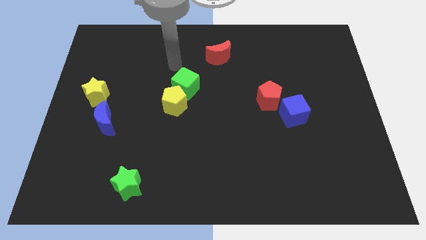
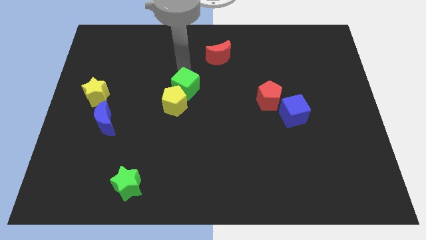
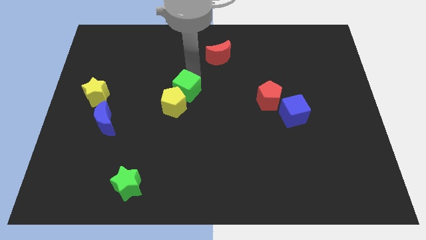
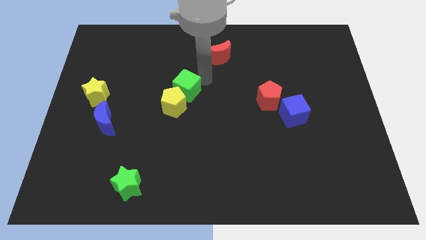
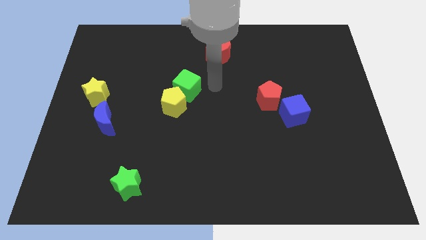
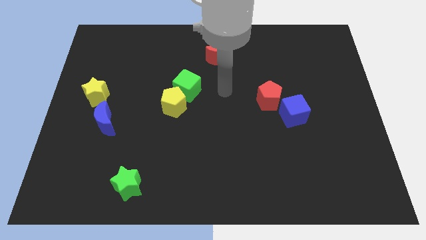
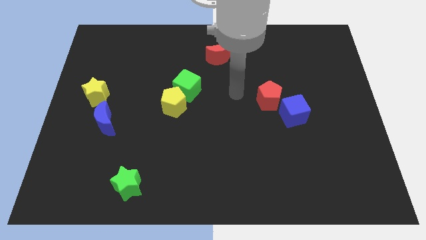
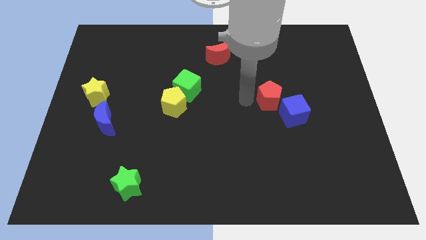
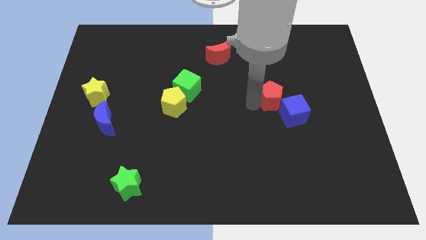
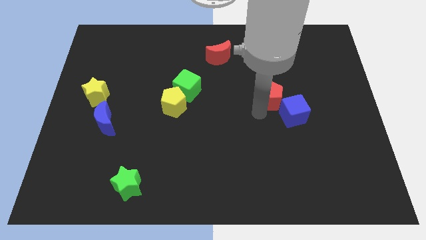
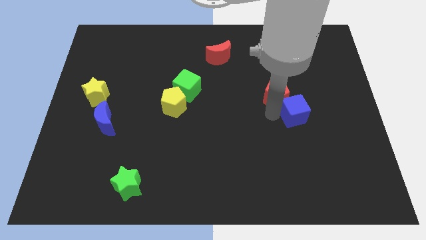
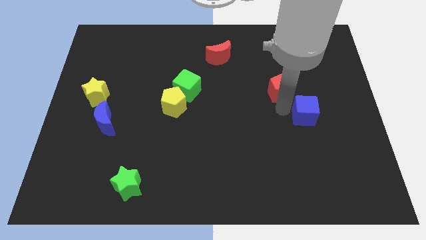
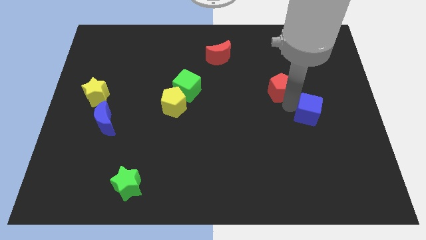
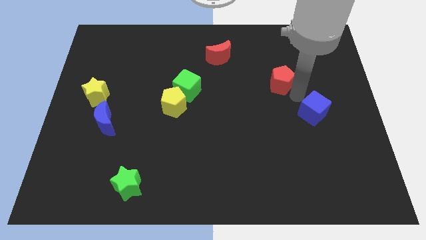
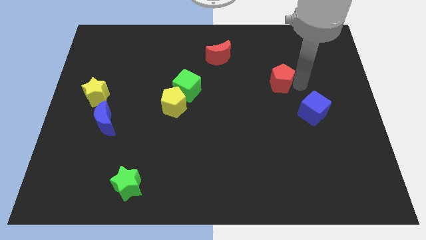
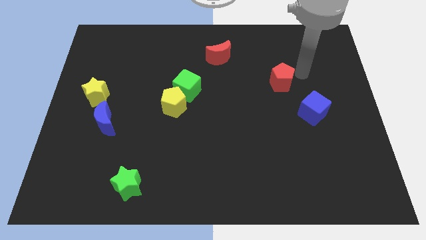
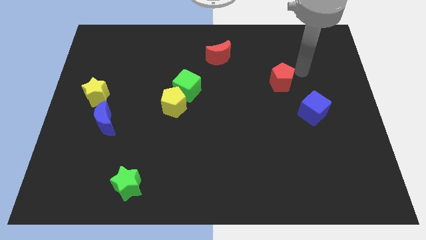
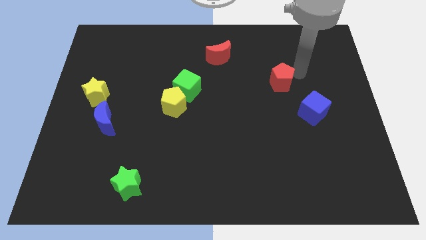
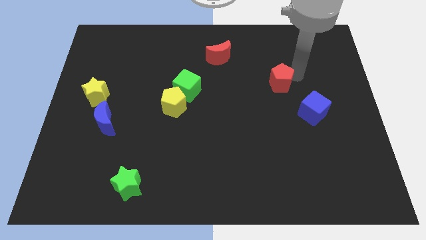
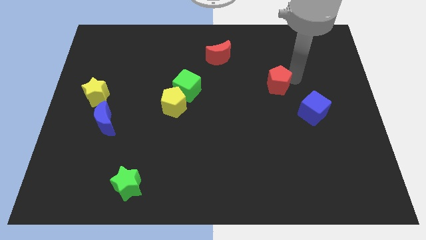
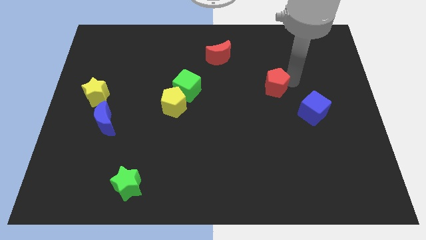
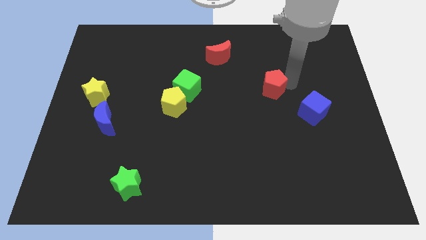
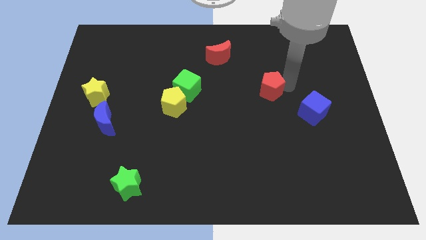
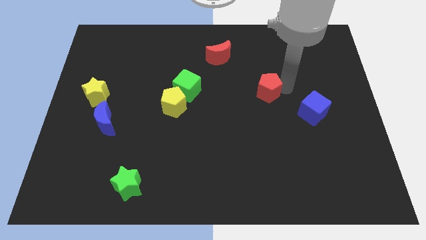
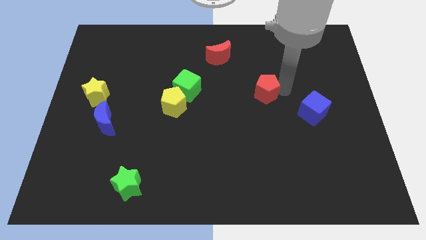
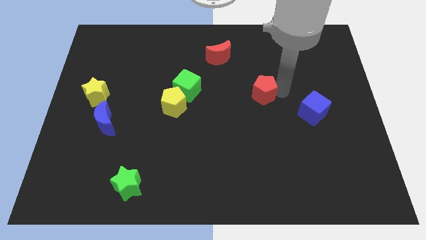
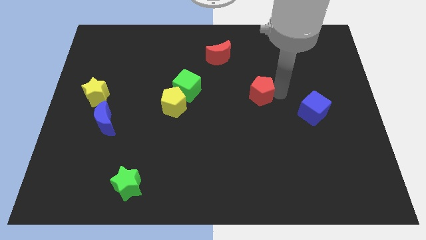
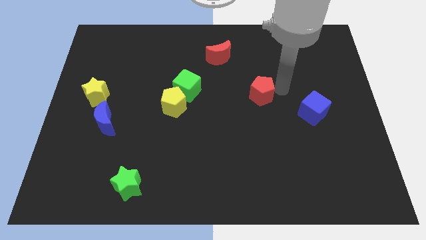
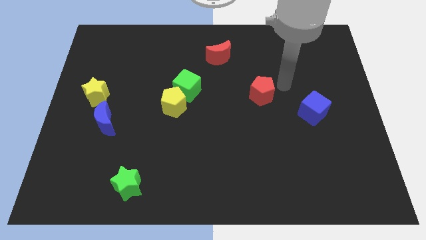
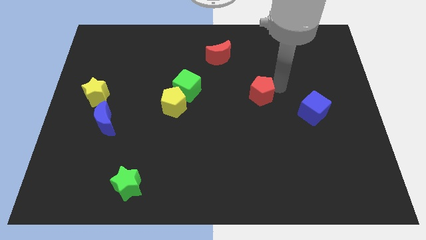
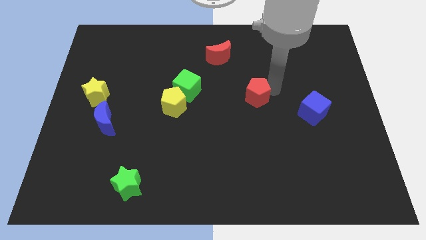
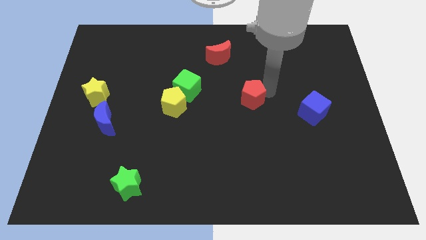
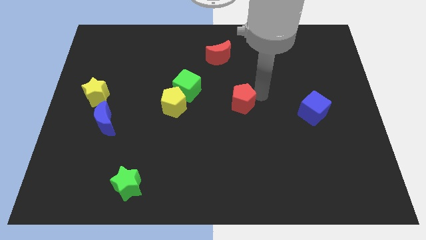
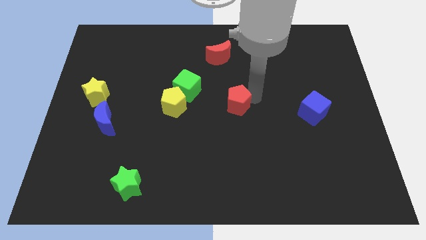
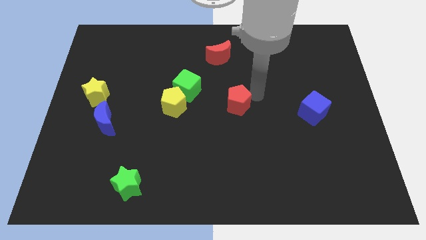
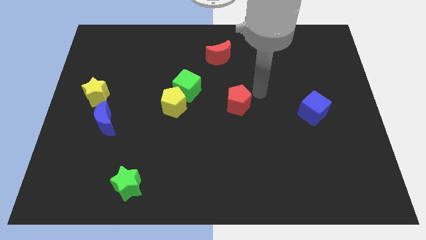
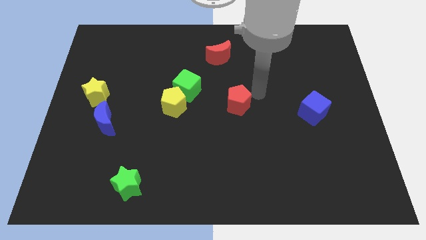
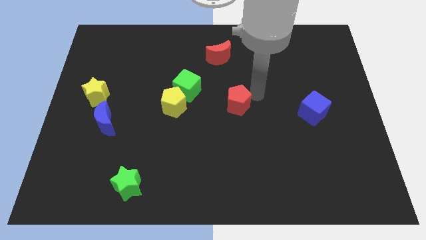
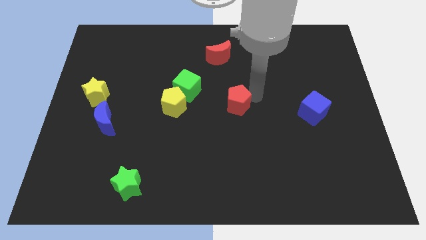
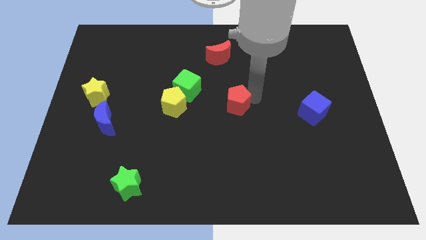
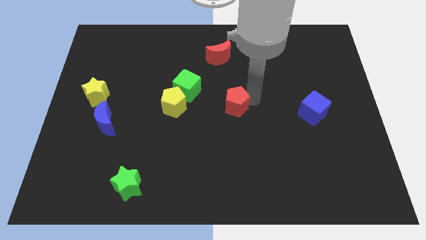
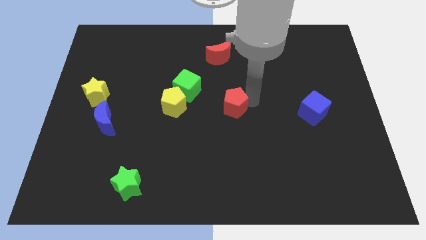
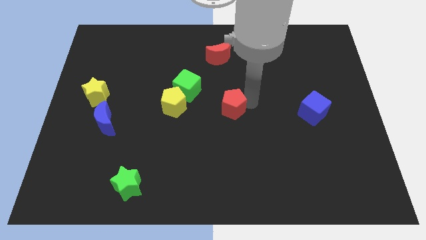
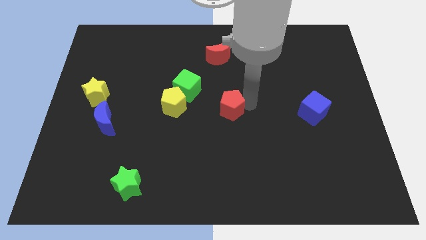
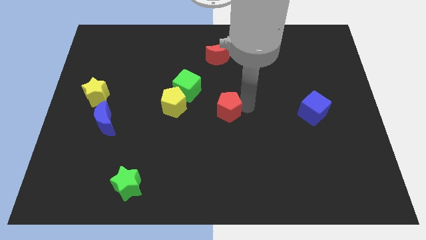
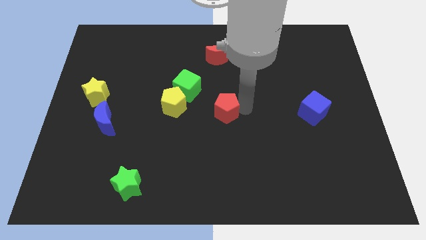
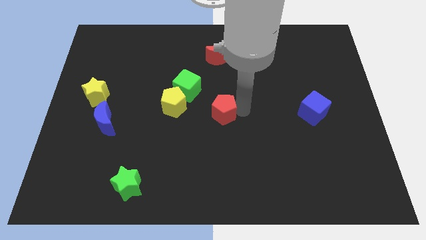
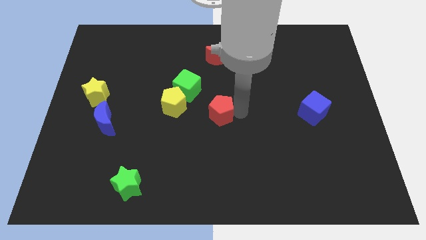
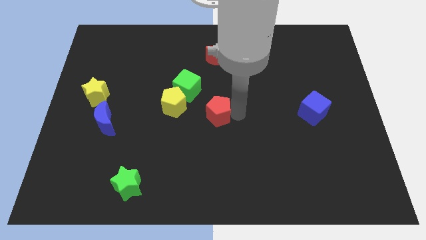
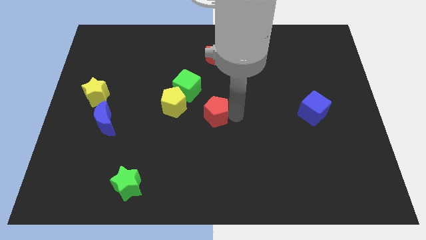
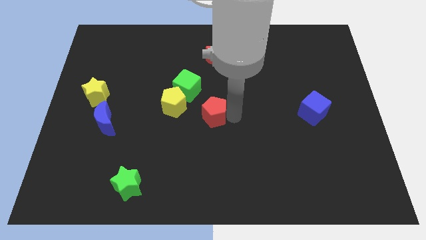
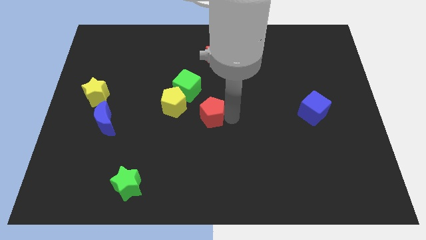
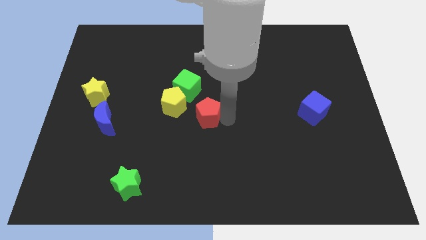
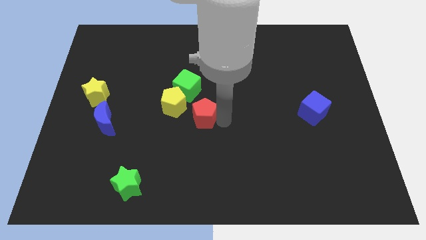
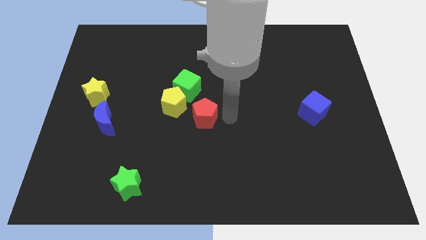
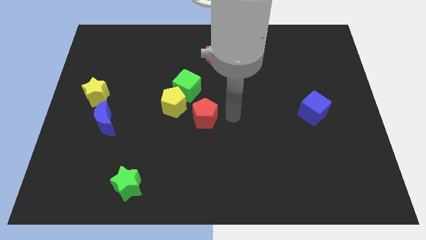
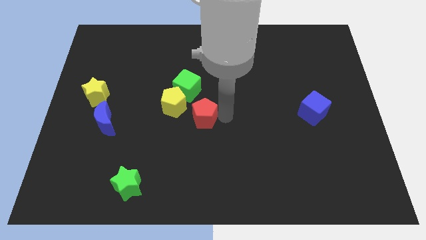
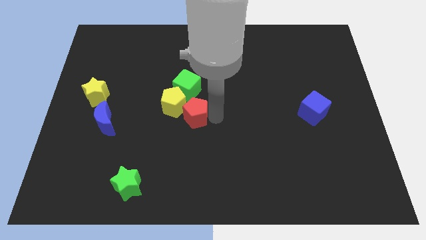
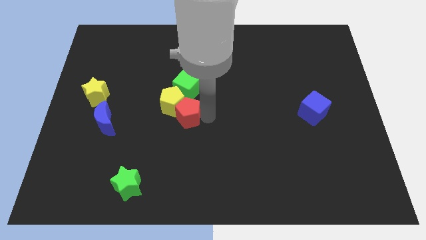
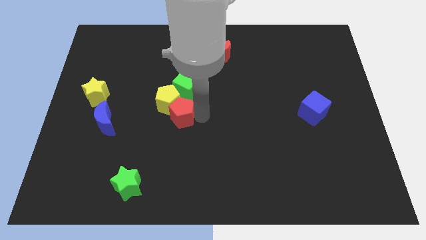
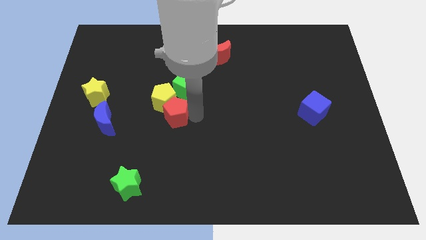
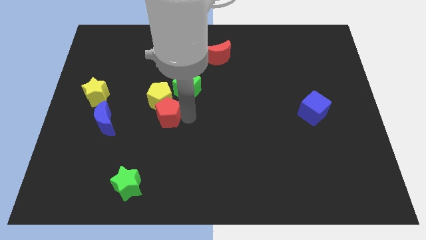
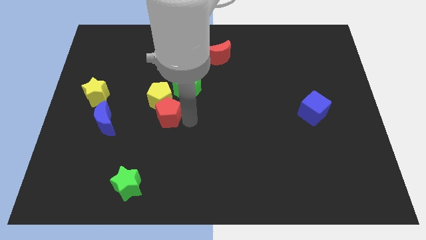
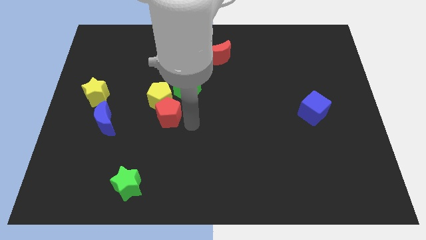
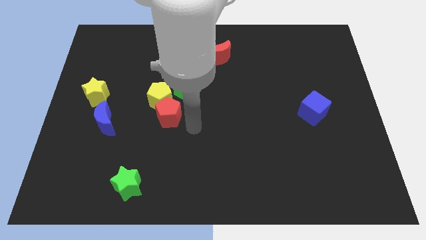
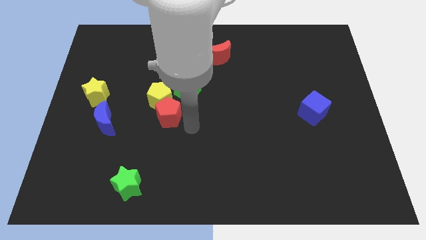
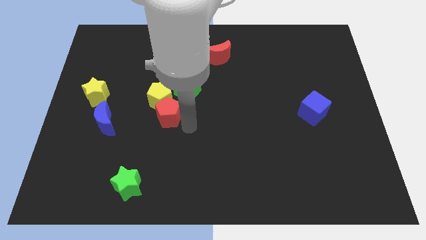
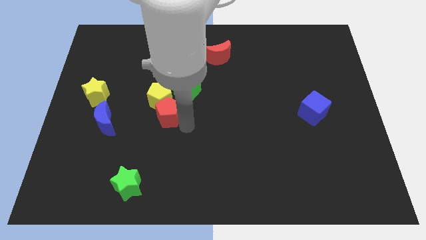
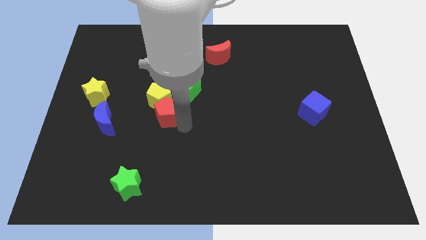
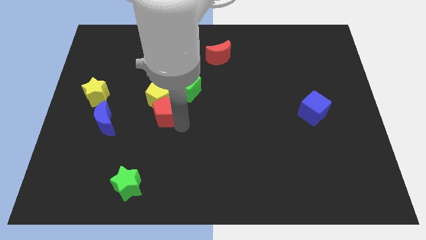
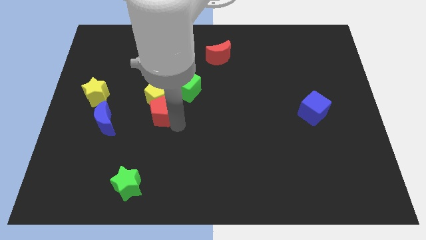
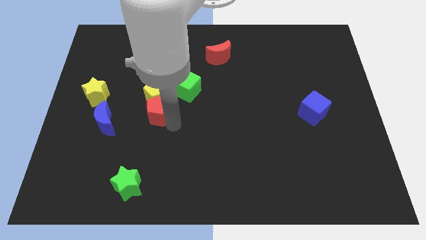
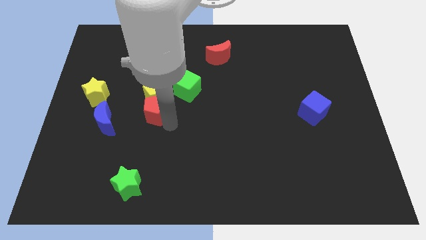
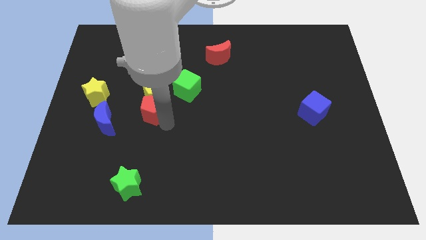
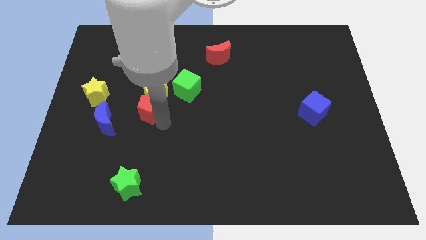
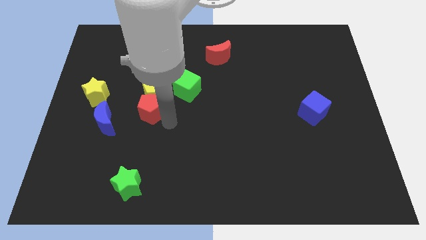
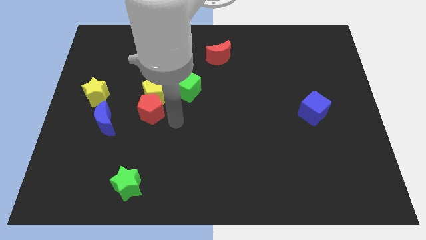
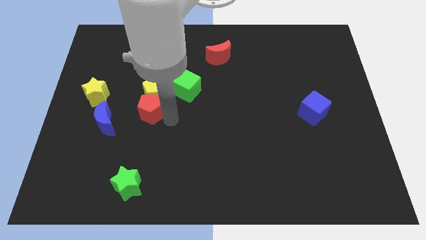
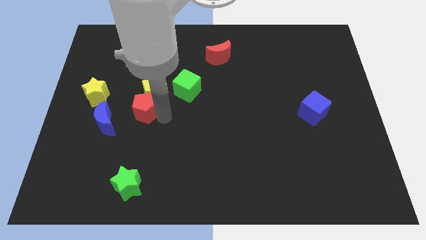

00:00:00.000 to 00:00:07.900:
put the red pentagon to the top right of the blue moon
